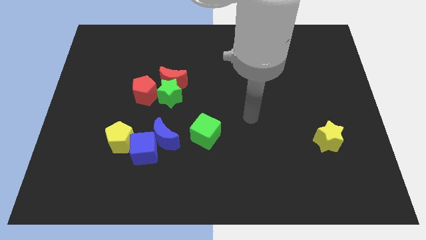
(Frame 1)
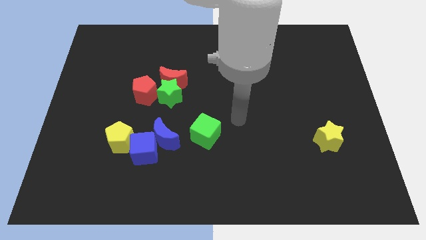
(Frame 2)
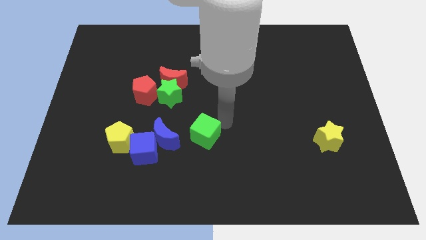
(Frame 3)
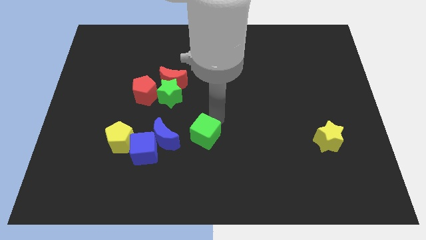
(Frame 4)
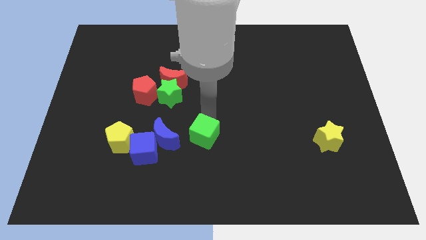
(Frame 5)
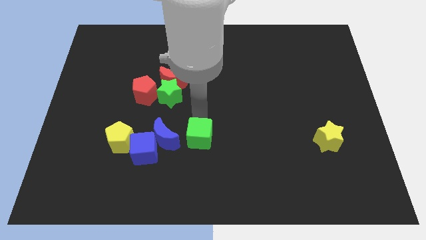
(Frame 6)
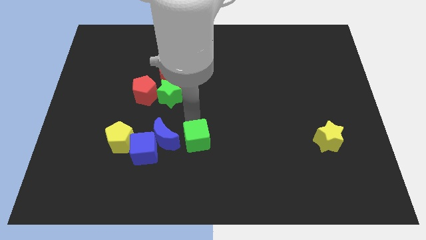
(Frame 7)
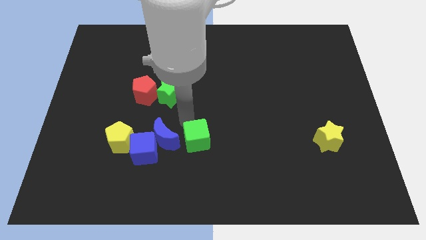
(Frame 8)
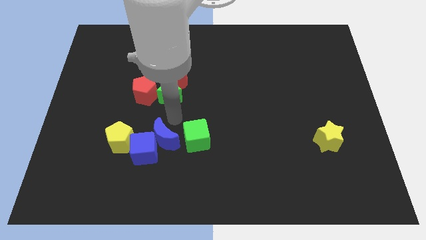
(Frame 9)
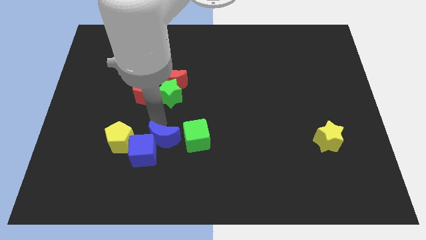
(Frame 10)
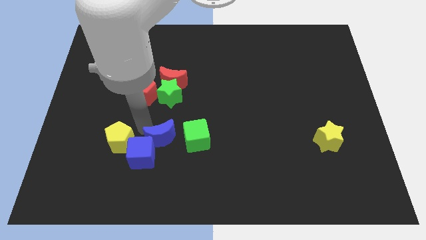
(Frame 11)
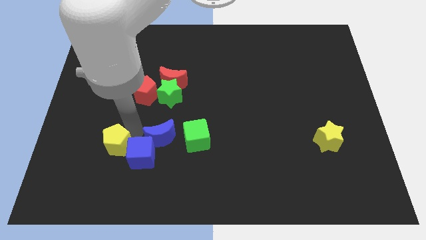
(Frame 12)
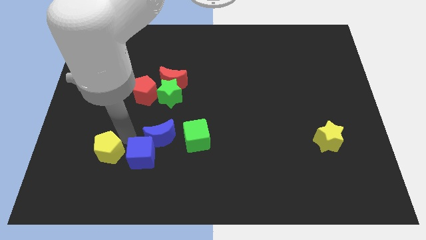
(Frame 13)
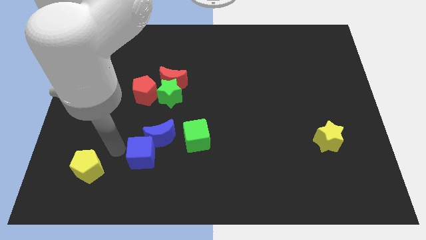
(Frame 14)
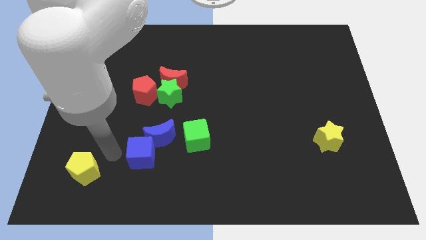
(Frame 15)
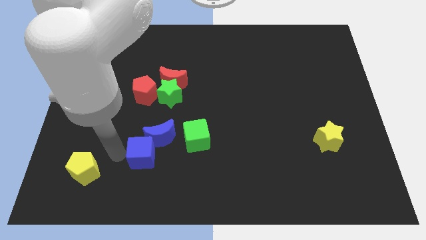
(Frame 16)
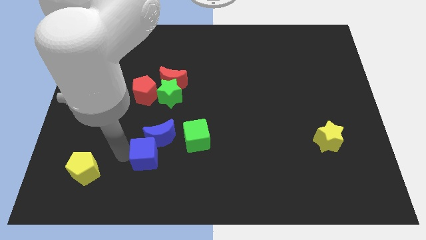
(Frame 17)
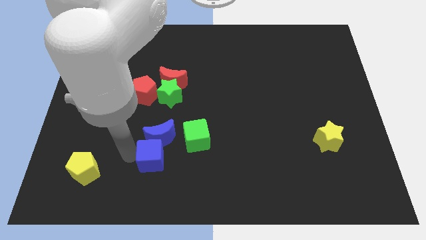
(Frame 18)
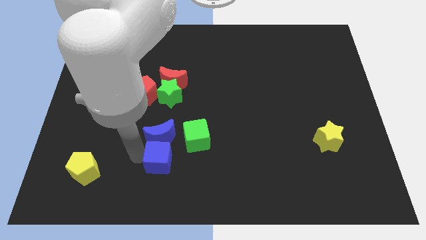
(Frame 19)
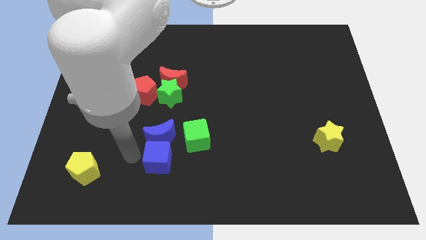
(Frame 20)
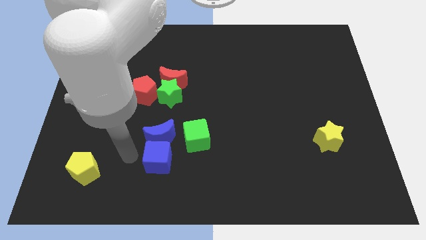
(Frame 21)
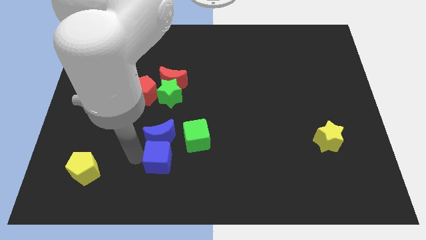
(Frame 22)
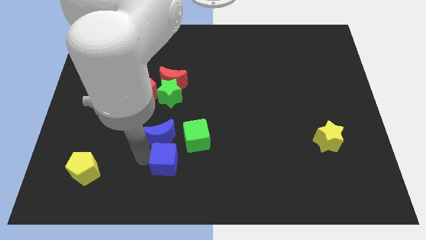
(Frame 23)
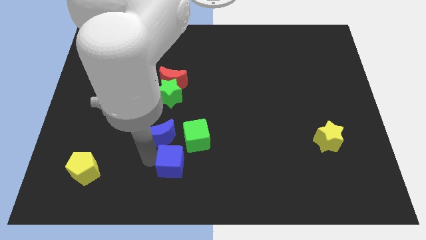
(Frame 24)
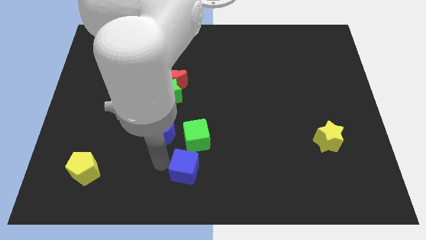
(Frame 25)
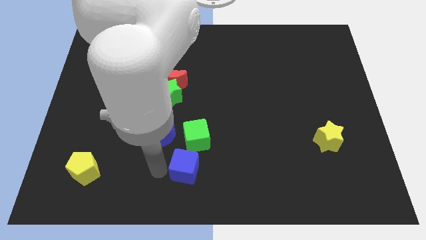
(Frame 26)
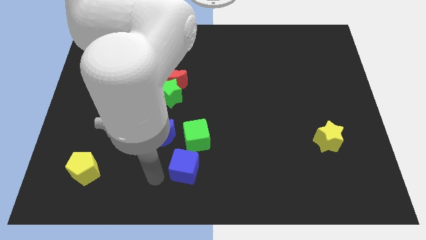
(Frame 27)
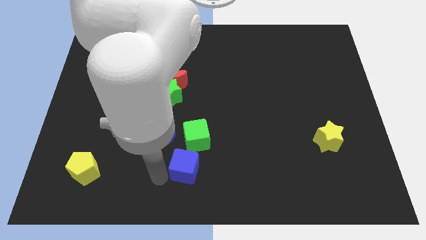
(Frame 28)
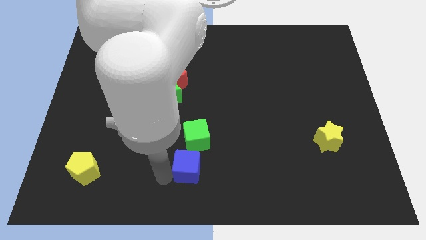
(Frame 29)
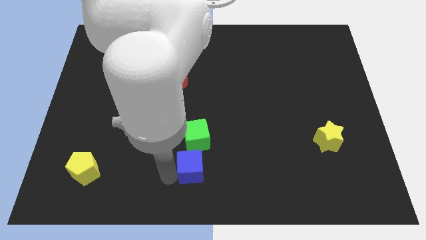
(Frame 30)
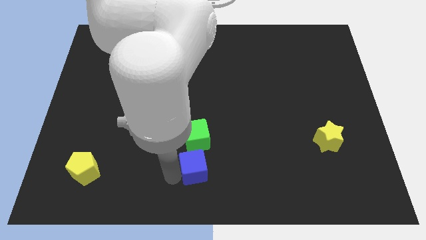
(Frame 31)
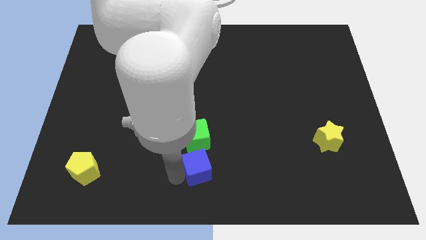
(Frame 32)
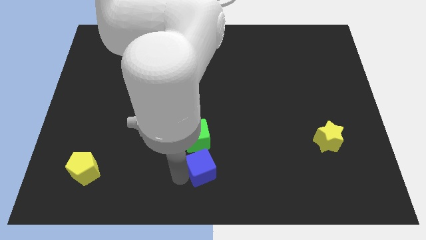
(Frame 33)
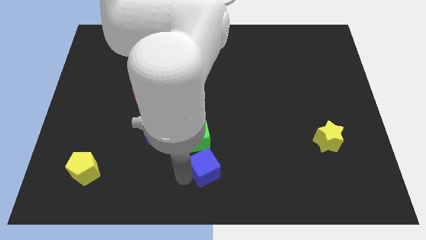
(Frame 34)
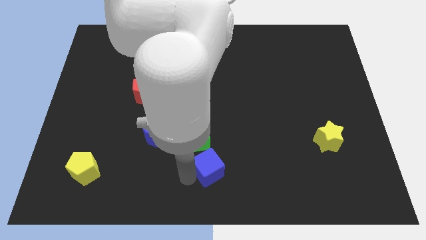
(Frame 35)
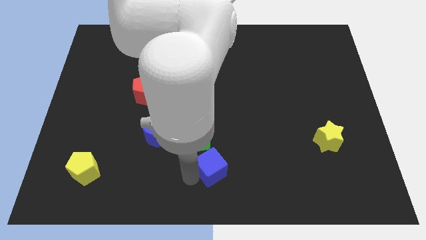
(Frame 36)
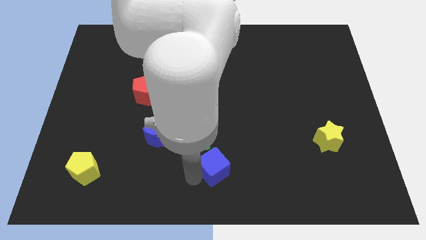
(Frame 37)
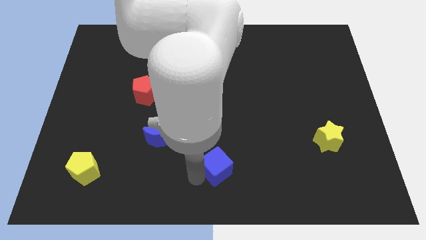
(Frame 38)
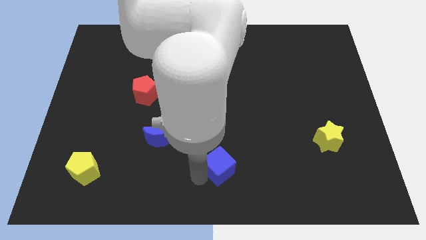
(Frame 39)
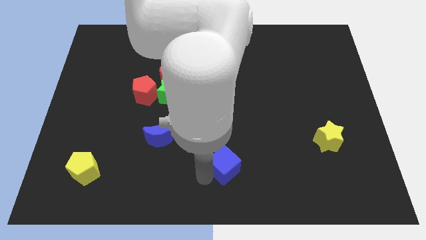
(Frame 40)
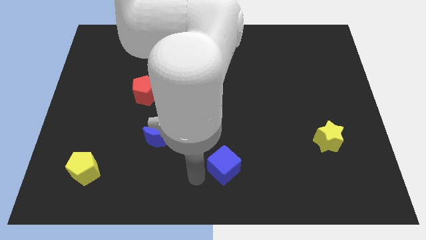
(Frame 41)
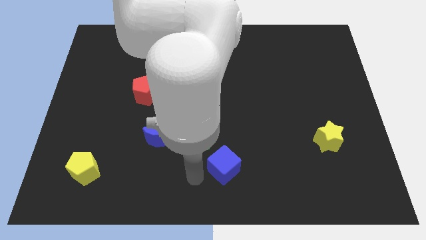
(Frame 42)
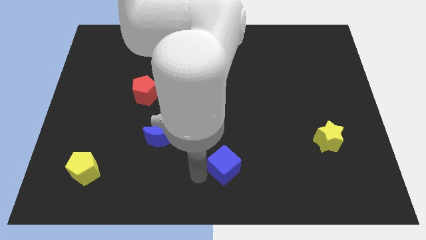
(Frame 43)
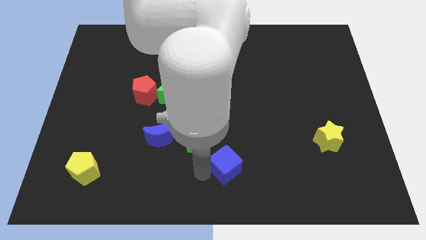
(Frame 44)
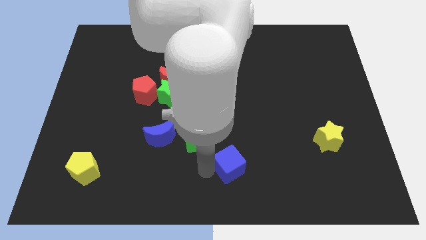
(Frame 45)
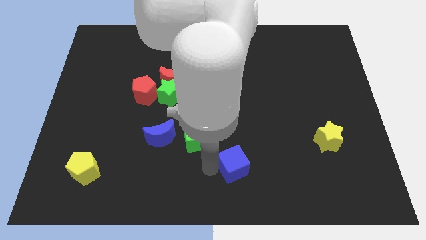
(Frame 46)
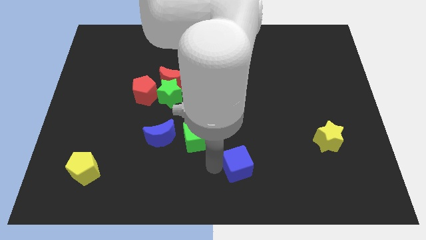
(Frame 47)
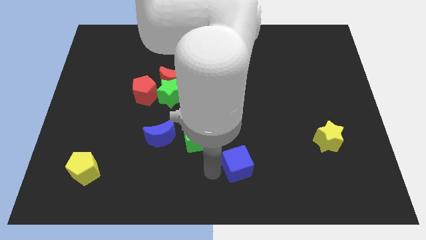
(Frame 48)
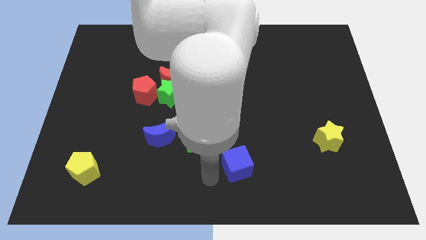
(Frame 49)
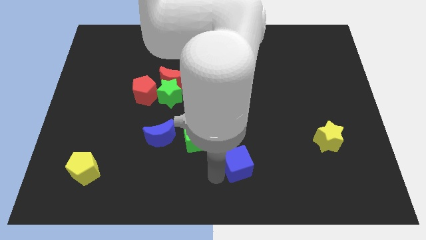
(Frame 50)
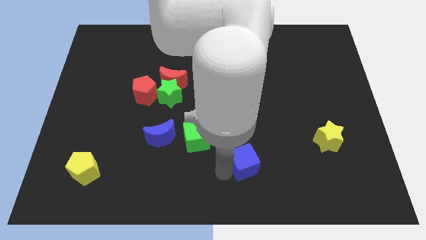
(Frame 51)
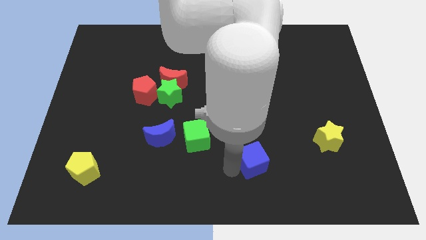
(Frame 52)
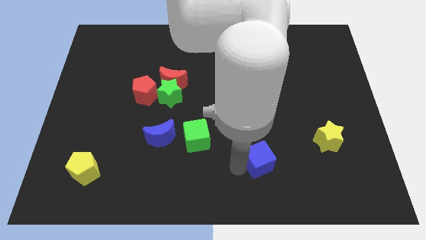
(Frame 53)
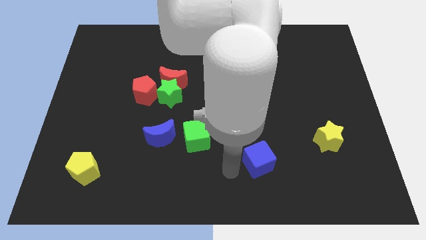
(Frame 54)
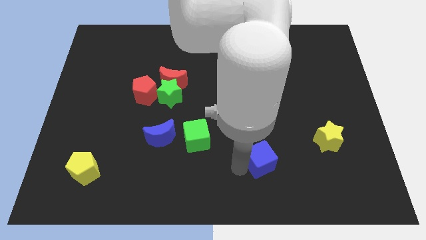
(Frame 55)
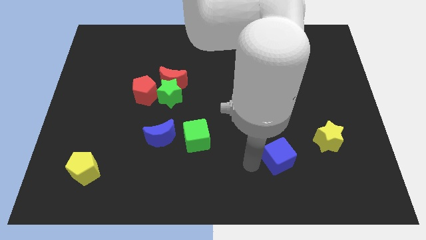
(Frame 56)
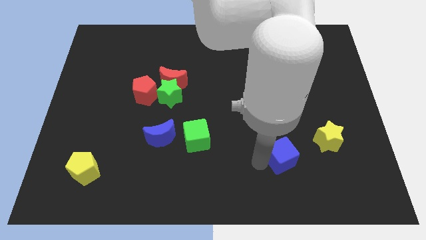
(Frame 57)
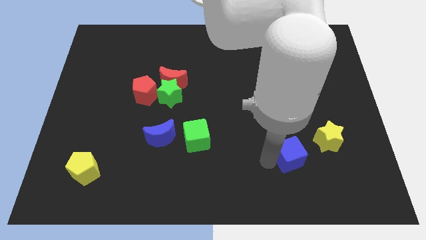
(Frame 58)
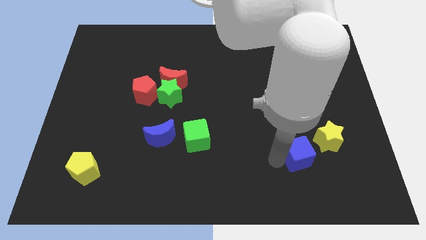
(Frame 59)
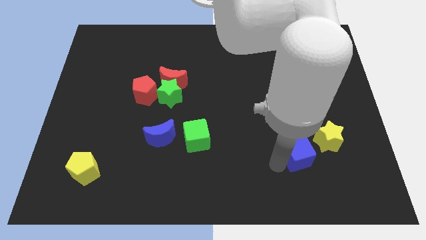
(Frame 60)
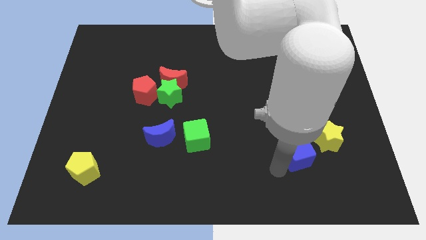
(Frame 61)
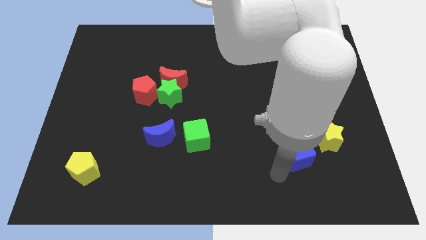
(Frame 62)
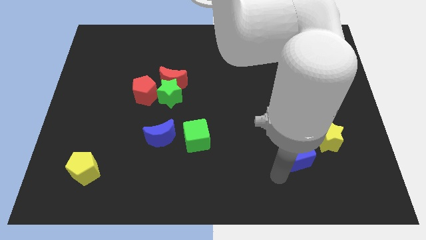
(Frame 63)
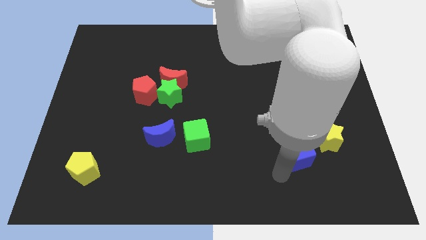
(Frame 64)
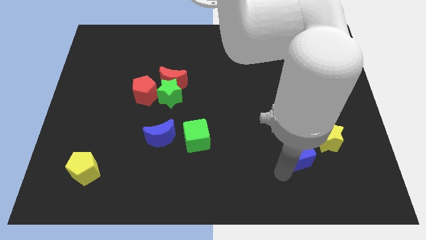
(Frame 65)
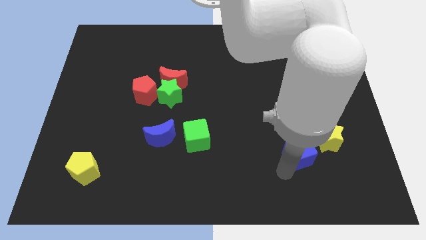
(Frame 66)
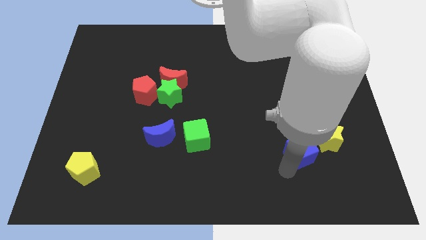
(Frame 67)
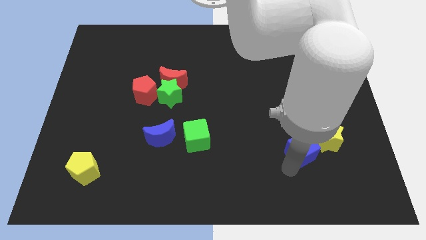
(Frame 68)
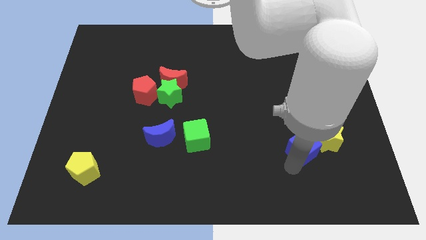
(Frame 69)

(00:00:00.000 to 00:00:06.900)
put the blue cube towards the yellow star
